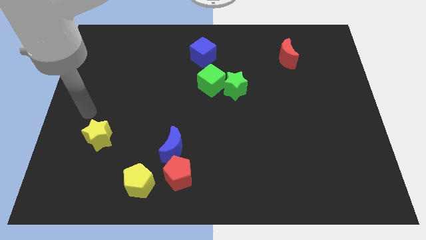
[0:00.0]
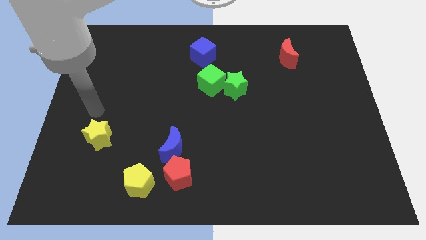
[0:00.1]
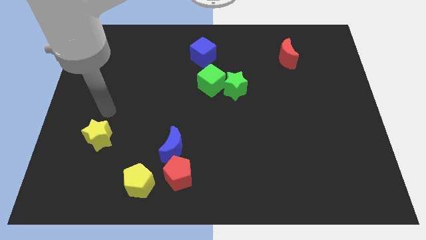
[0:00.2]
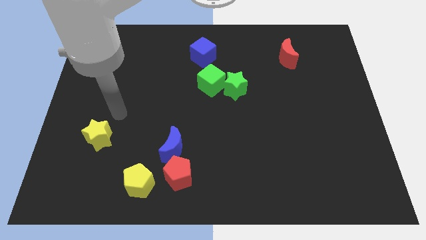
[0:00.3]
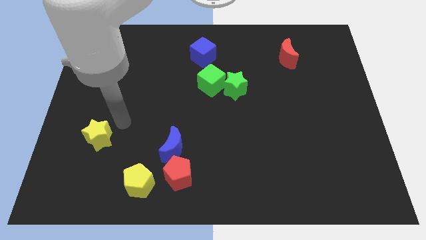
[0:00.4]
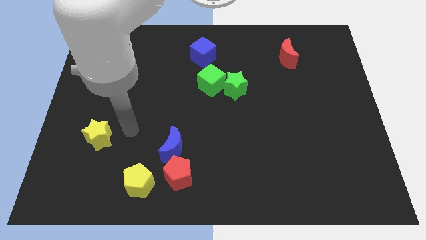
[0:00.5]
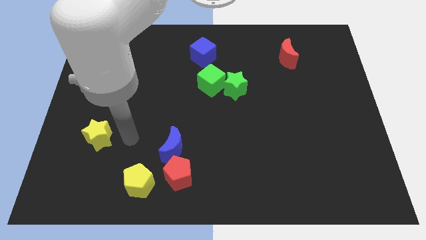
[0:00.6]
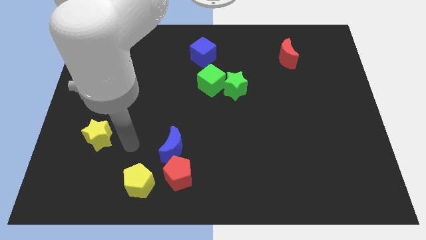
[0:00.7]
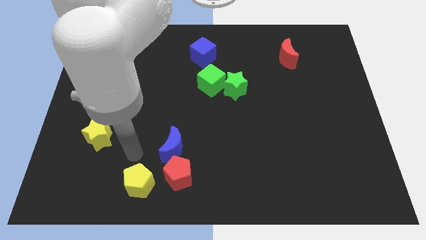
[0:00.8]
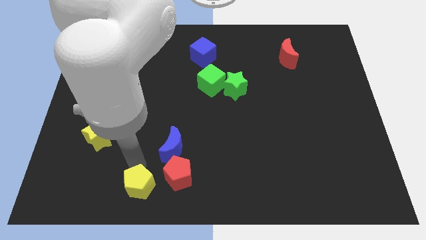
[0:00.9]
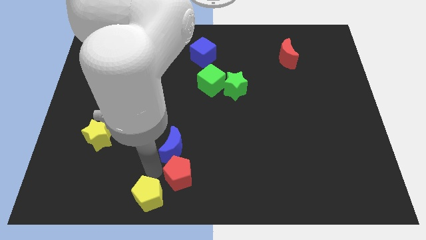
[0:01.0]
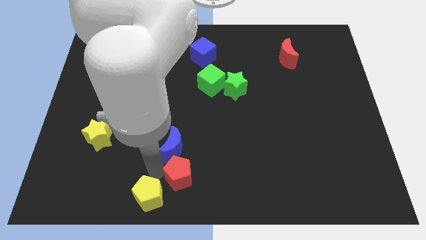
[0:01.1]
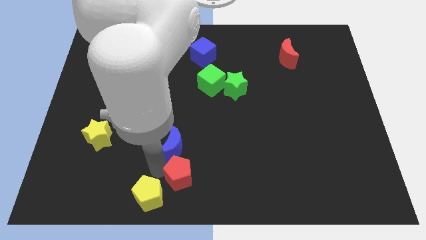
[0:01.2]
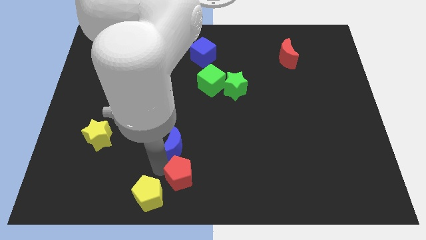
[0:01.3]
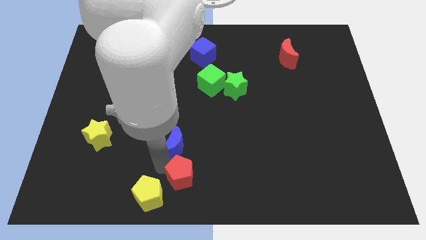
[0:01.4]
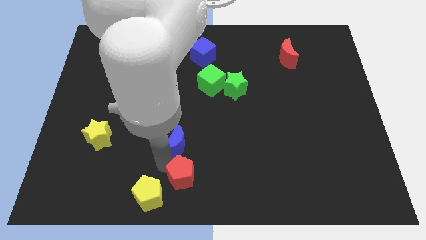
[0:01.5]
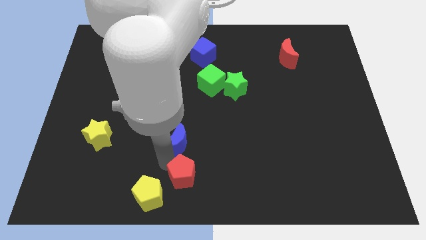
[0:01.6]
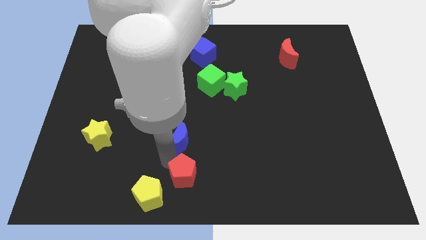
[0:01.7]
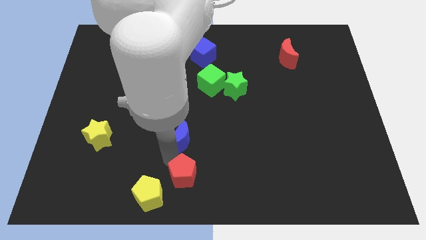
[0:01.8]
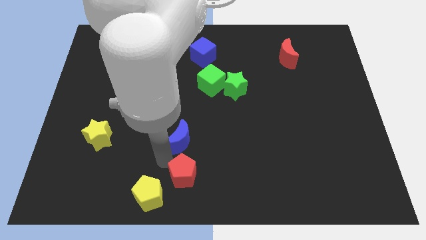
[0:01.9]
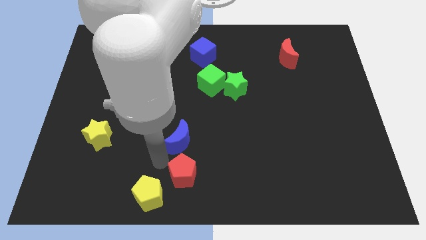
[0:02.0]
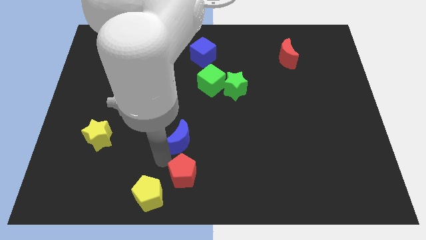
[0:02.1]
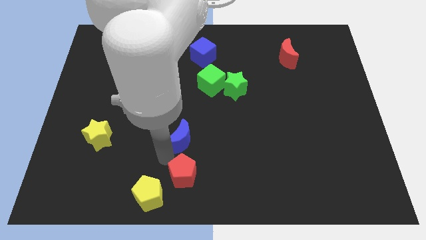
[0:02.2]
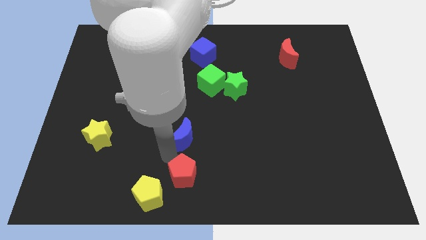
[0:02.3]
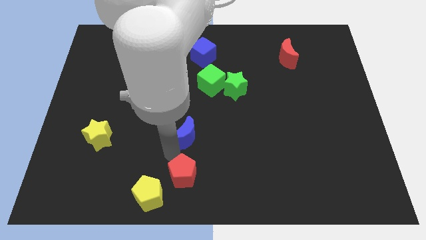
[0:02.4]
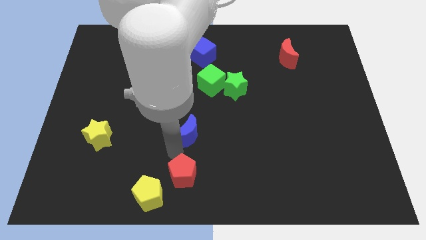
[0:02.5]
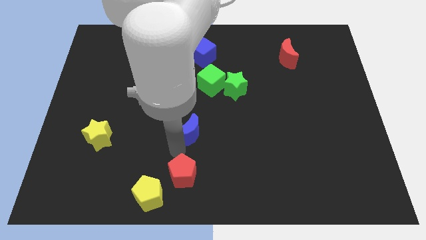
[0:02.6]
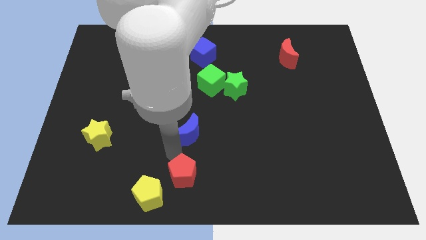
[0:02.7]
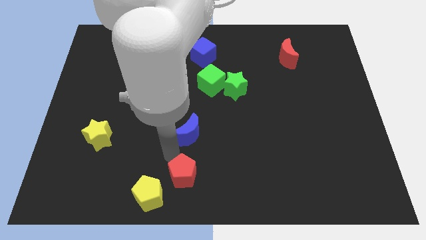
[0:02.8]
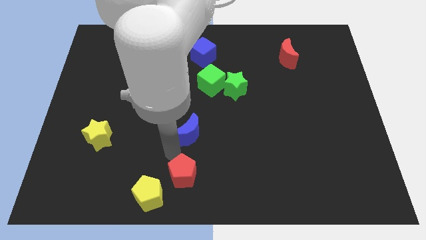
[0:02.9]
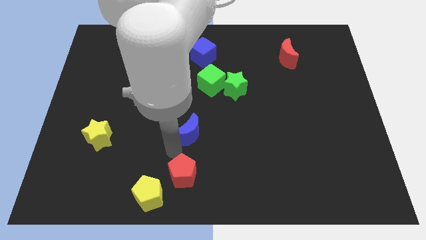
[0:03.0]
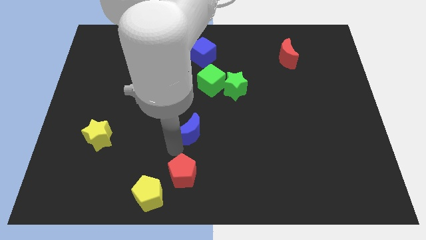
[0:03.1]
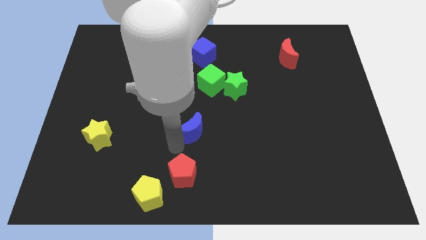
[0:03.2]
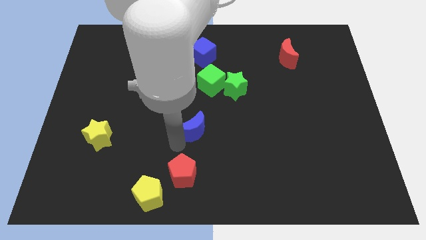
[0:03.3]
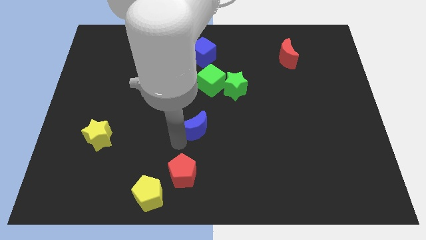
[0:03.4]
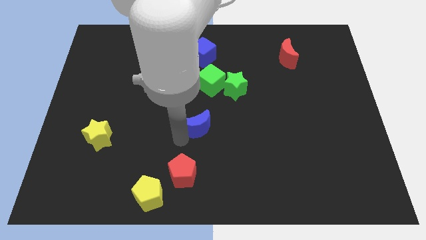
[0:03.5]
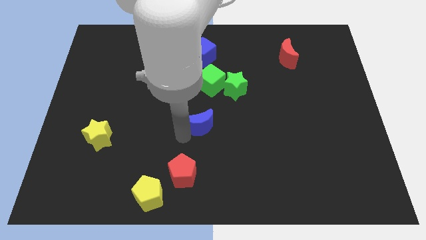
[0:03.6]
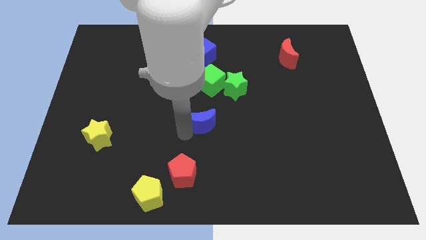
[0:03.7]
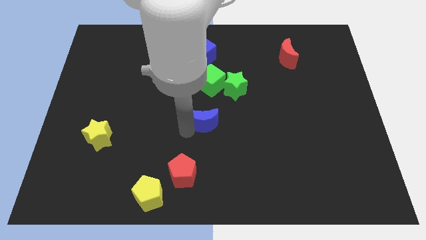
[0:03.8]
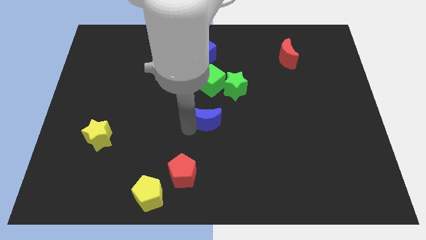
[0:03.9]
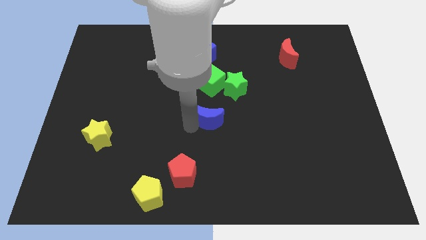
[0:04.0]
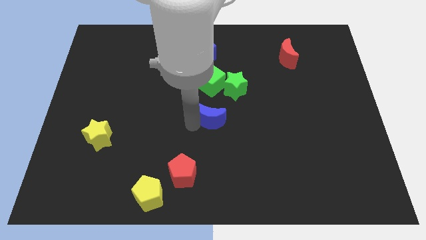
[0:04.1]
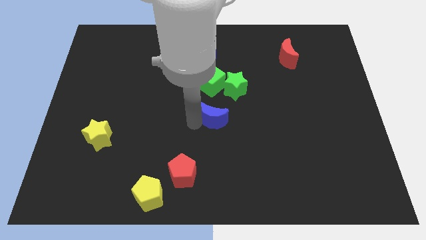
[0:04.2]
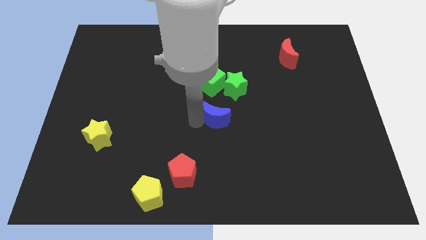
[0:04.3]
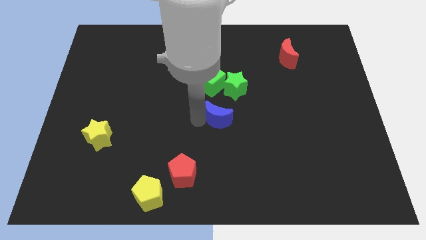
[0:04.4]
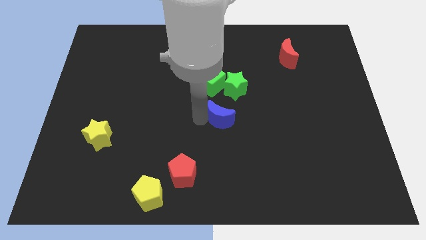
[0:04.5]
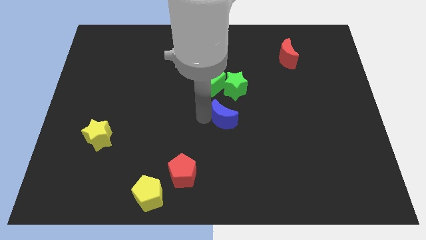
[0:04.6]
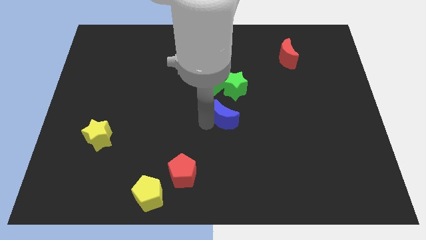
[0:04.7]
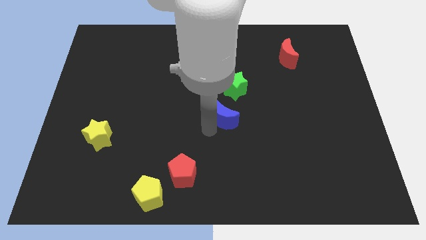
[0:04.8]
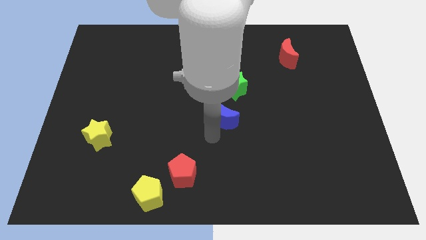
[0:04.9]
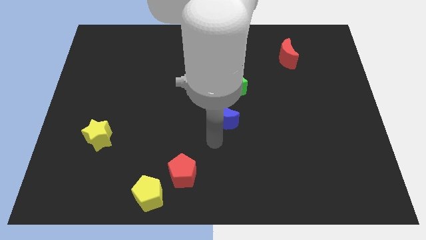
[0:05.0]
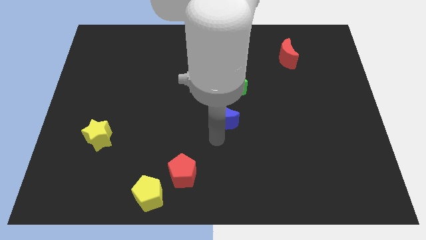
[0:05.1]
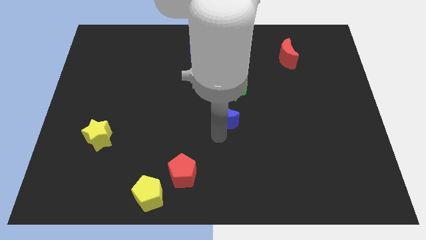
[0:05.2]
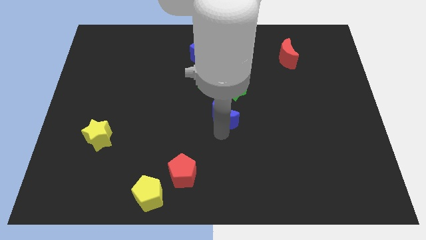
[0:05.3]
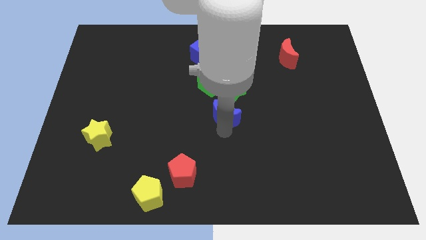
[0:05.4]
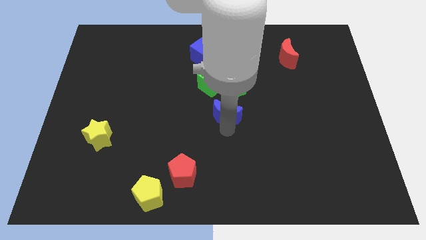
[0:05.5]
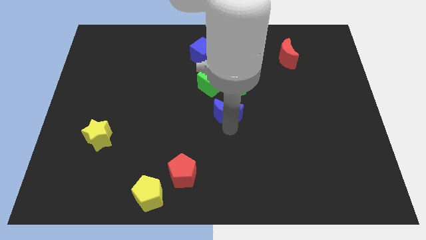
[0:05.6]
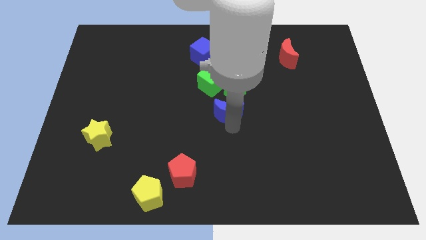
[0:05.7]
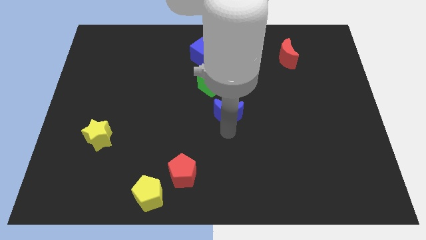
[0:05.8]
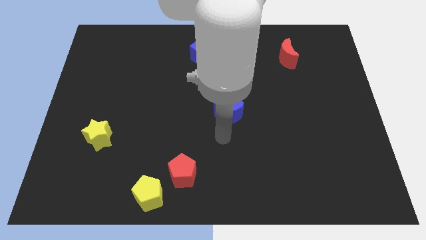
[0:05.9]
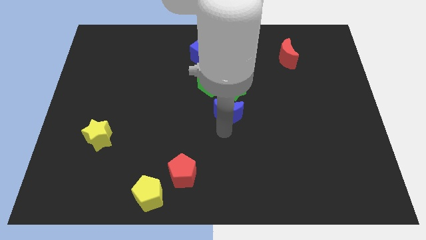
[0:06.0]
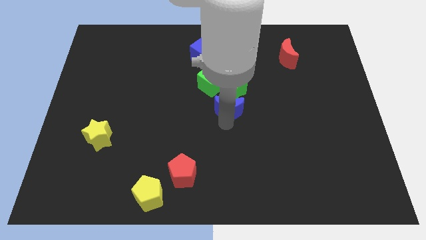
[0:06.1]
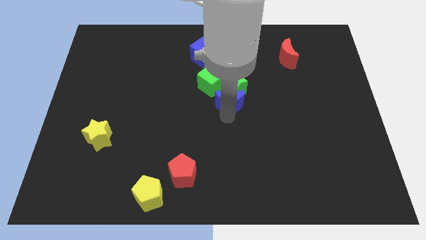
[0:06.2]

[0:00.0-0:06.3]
move the blue moon to the green star

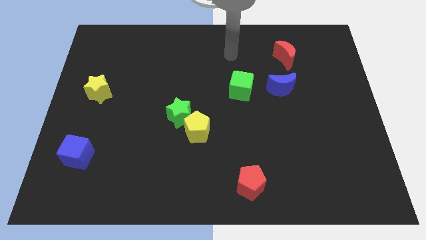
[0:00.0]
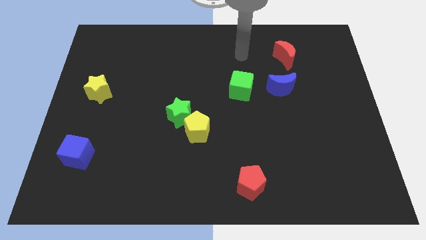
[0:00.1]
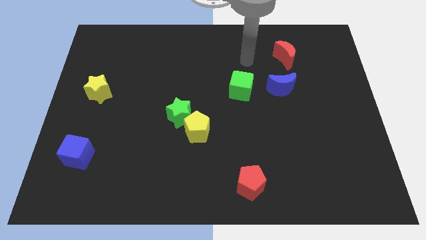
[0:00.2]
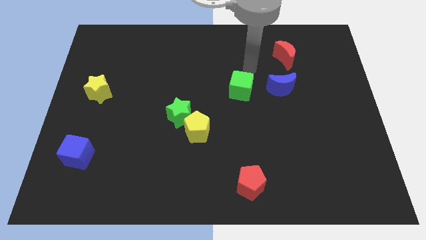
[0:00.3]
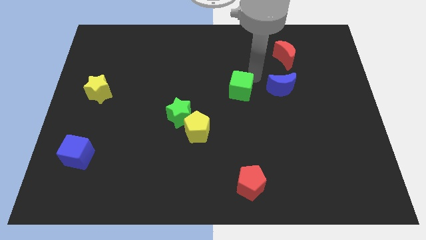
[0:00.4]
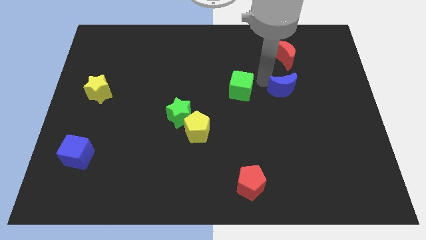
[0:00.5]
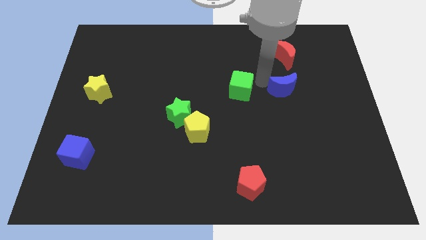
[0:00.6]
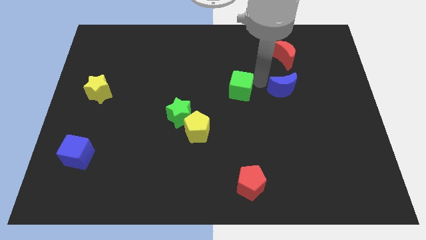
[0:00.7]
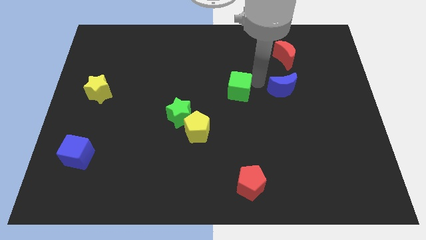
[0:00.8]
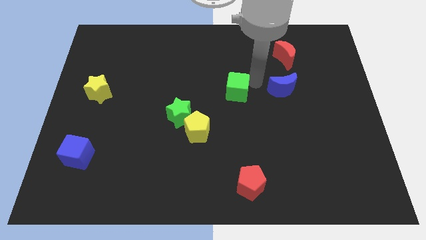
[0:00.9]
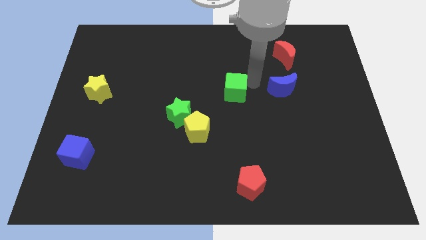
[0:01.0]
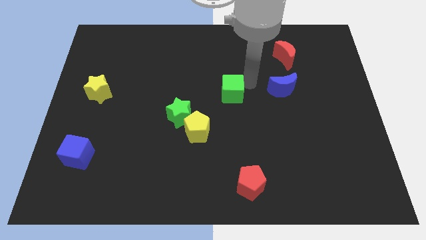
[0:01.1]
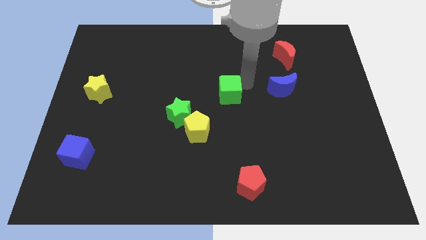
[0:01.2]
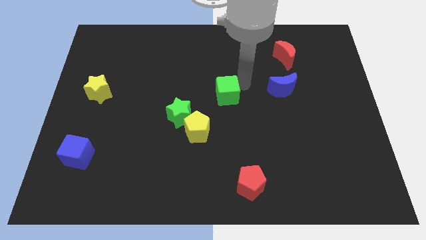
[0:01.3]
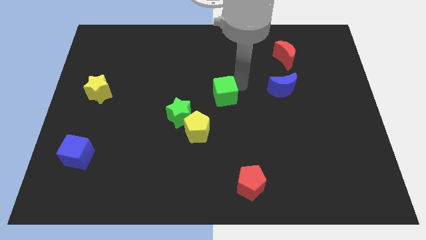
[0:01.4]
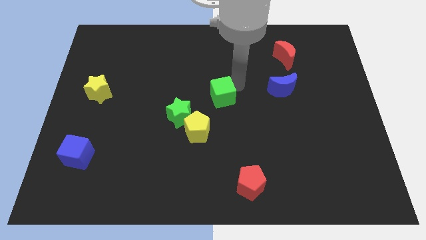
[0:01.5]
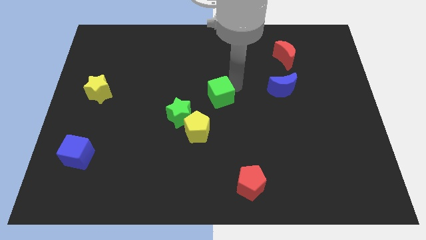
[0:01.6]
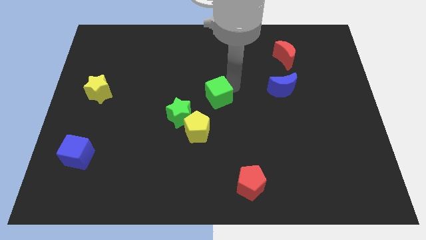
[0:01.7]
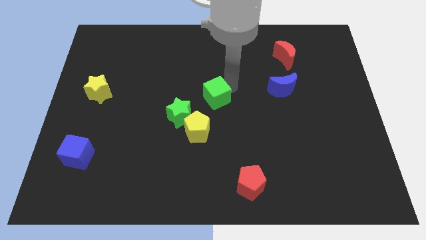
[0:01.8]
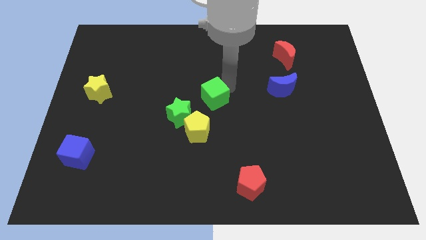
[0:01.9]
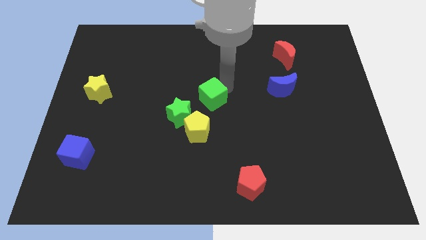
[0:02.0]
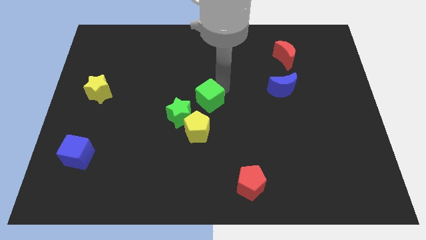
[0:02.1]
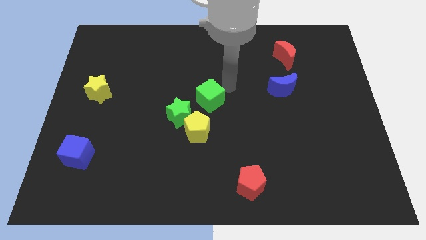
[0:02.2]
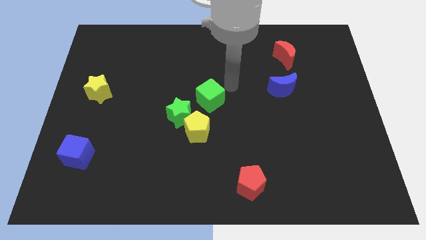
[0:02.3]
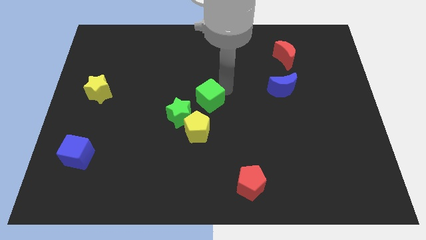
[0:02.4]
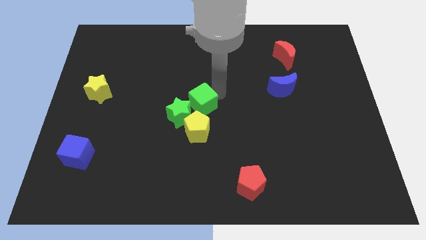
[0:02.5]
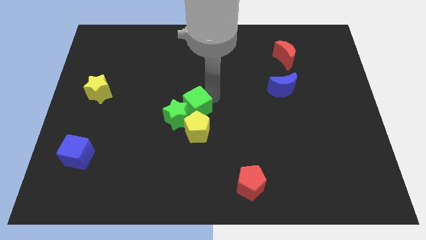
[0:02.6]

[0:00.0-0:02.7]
push the green cube to the green star
